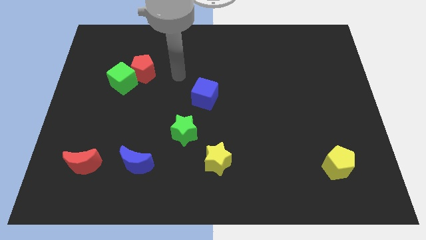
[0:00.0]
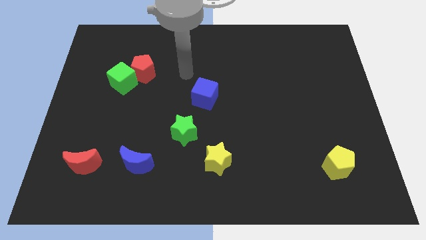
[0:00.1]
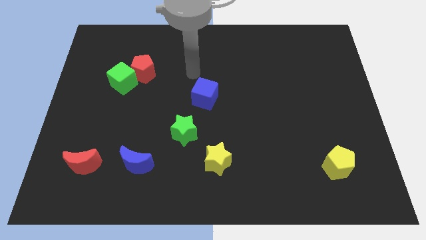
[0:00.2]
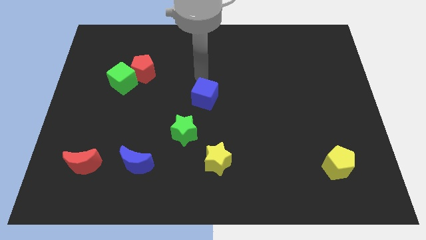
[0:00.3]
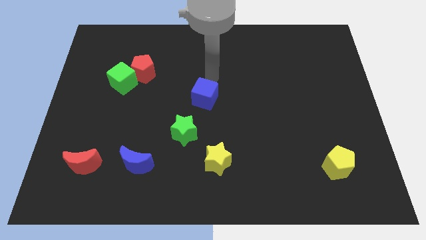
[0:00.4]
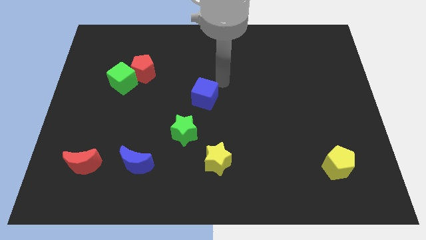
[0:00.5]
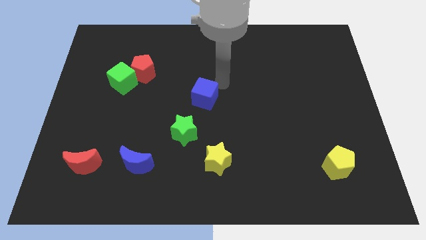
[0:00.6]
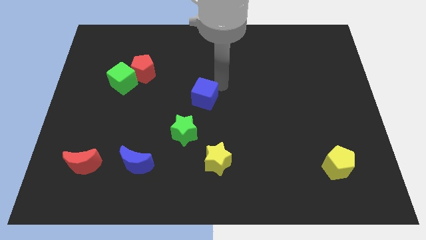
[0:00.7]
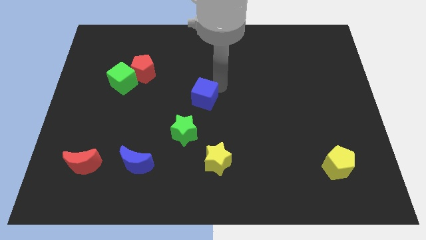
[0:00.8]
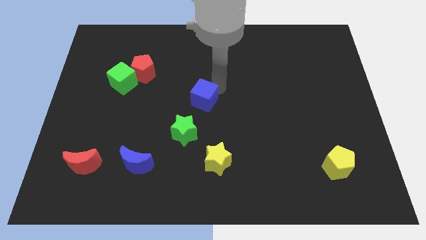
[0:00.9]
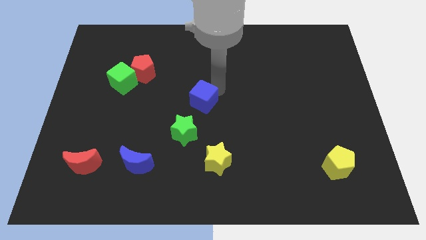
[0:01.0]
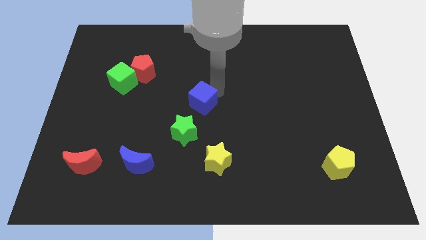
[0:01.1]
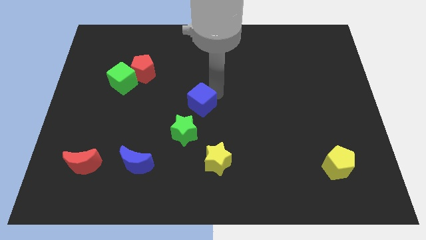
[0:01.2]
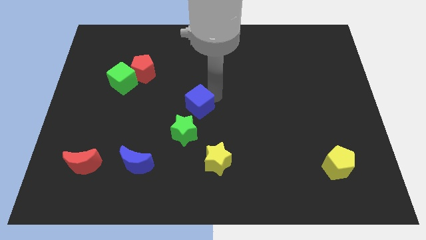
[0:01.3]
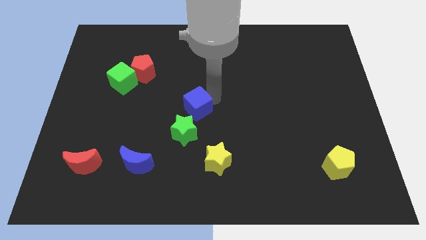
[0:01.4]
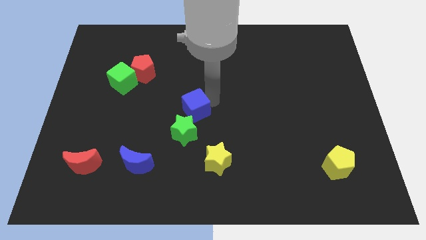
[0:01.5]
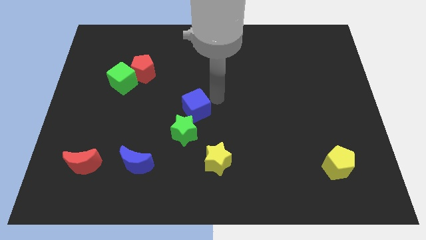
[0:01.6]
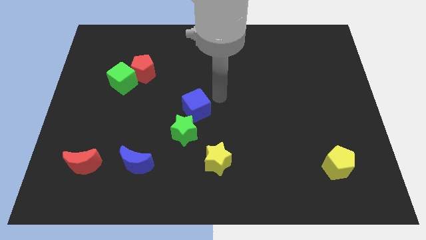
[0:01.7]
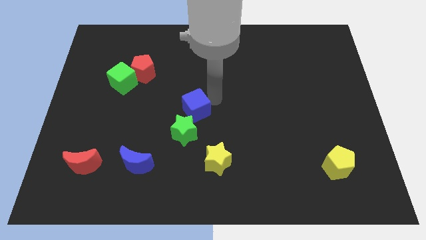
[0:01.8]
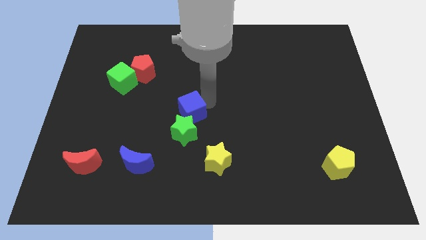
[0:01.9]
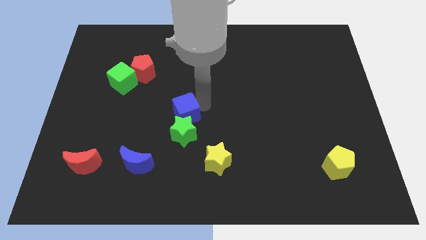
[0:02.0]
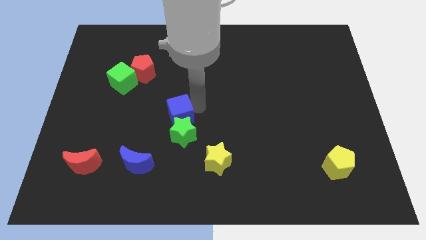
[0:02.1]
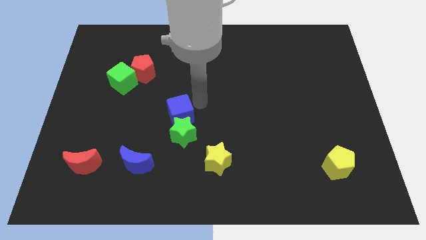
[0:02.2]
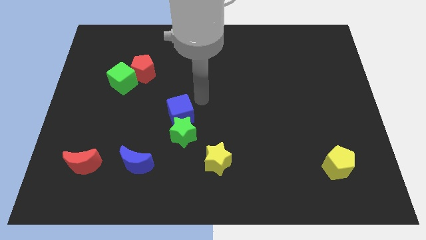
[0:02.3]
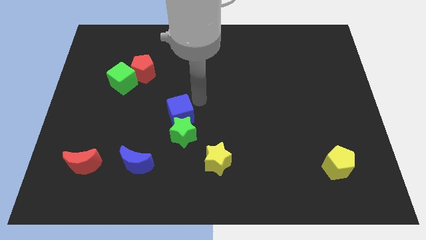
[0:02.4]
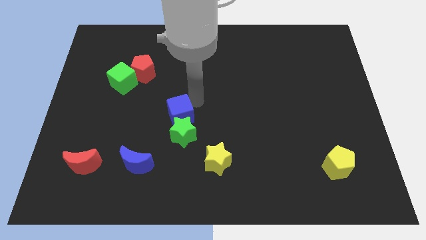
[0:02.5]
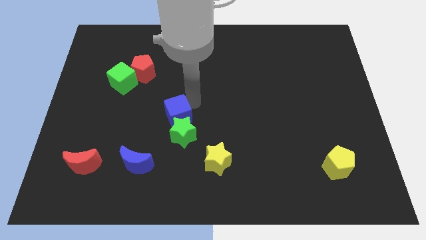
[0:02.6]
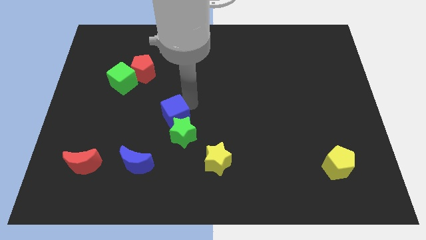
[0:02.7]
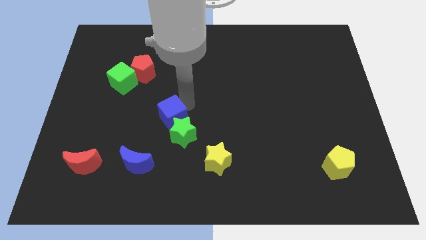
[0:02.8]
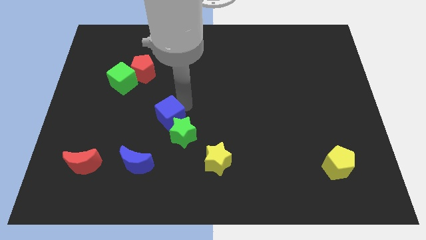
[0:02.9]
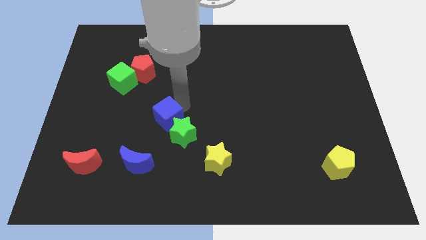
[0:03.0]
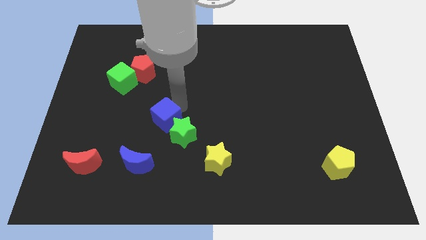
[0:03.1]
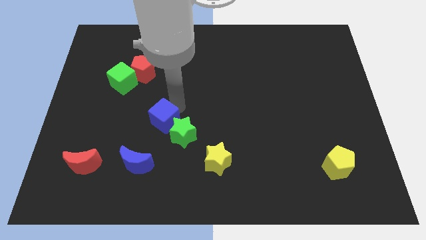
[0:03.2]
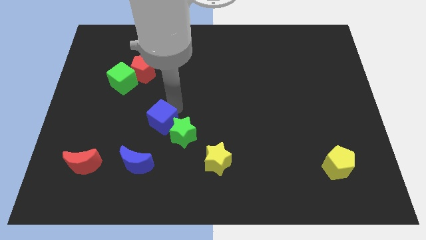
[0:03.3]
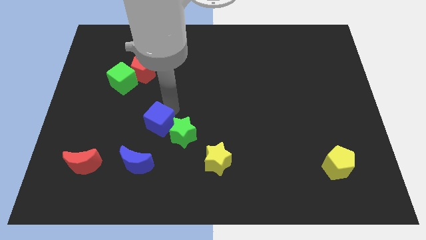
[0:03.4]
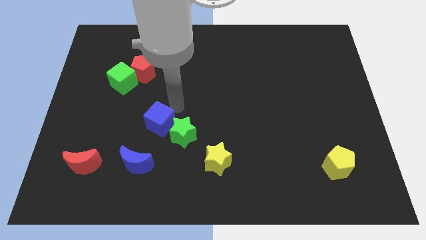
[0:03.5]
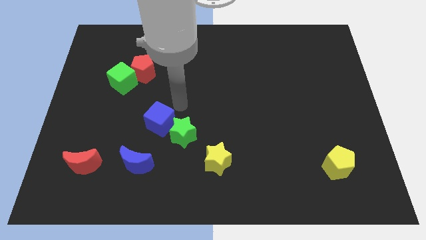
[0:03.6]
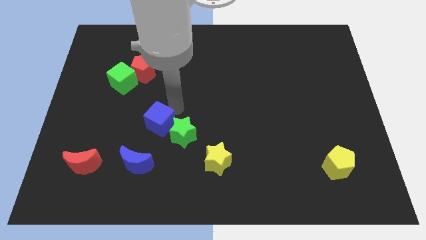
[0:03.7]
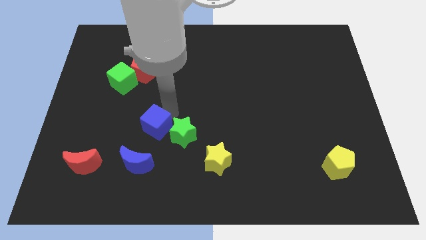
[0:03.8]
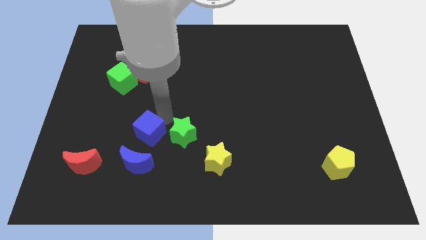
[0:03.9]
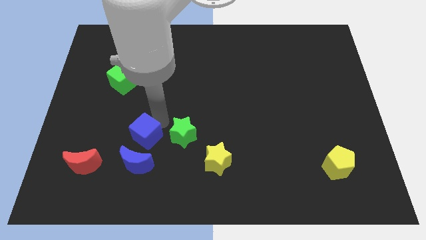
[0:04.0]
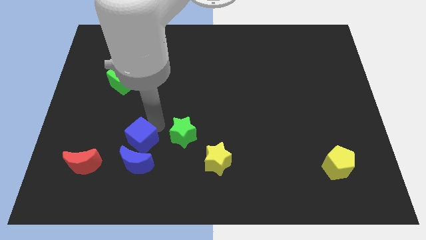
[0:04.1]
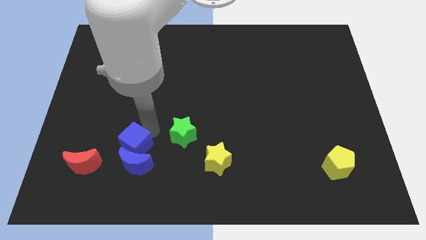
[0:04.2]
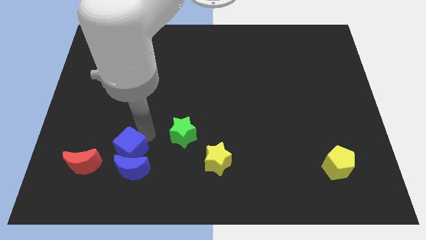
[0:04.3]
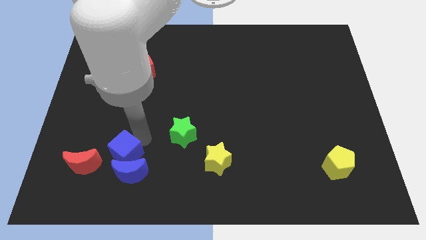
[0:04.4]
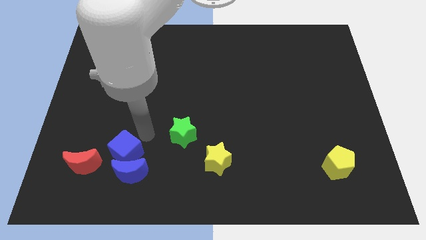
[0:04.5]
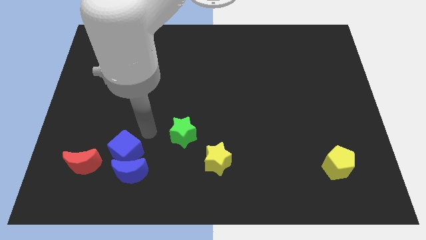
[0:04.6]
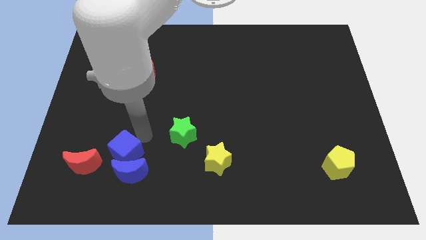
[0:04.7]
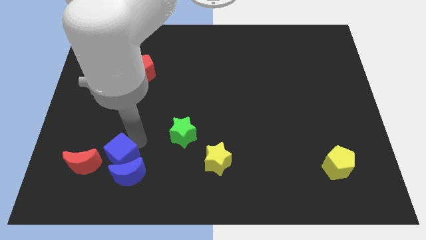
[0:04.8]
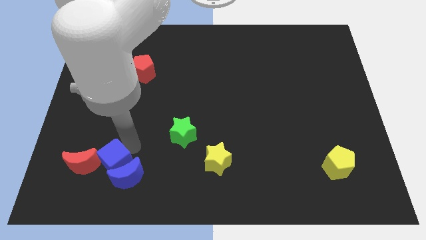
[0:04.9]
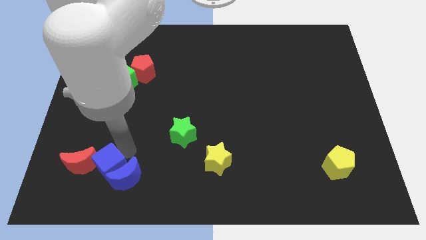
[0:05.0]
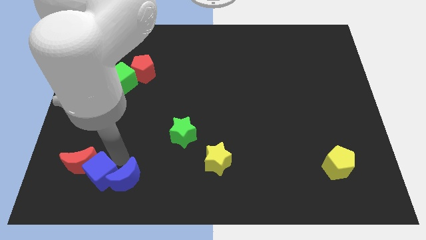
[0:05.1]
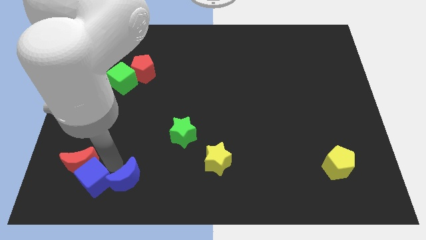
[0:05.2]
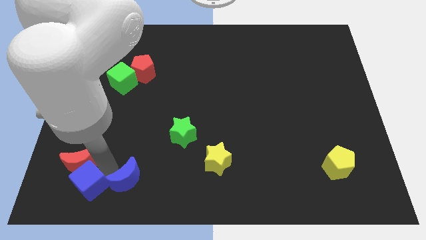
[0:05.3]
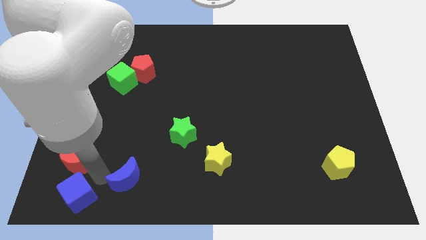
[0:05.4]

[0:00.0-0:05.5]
move the blue cube to the lower left corner
